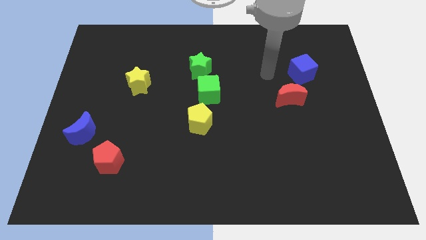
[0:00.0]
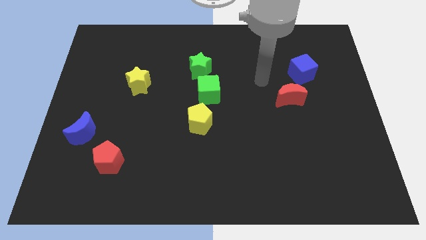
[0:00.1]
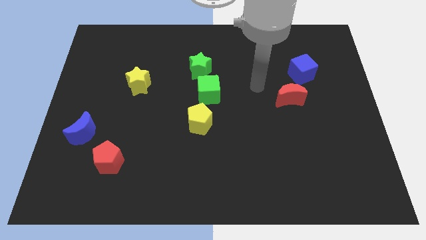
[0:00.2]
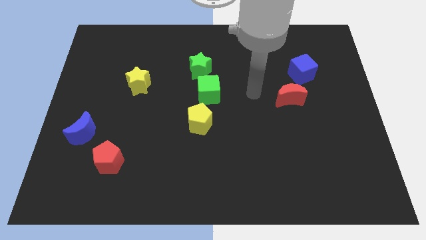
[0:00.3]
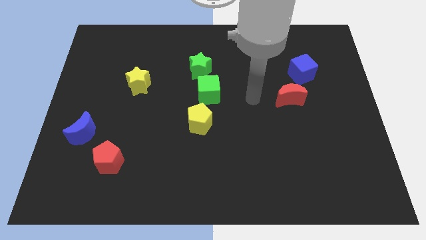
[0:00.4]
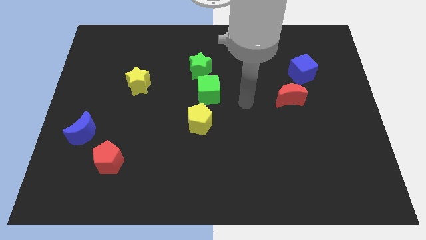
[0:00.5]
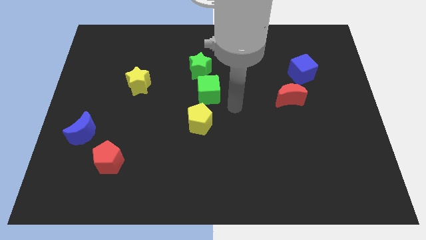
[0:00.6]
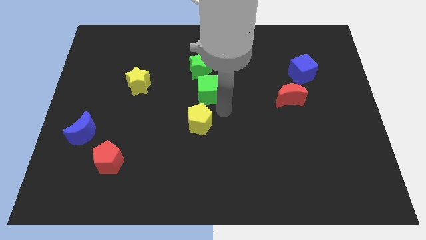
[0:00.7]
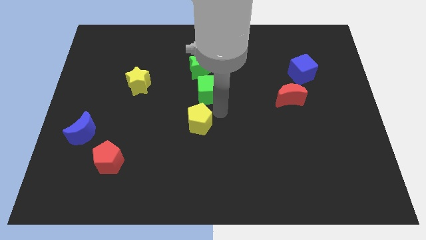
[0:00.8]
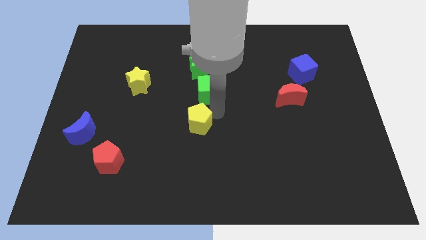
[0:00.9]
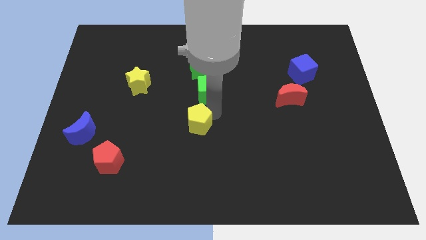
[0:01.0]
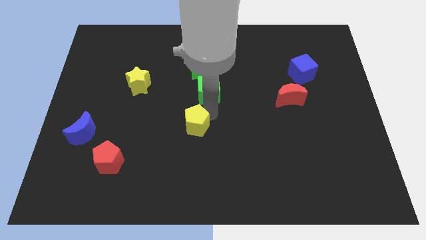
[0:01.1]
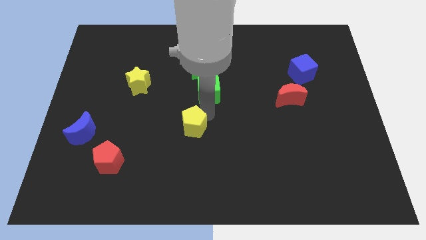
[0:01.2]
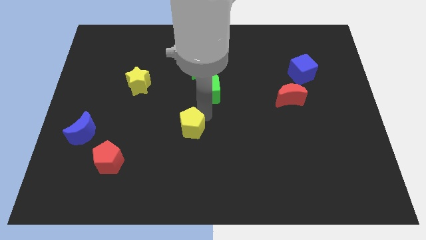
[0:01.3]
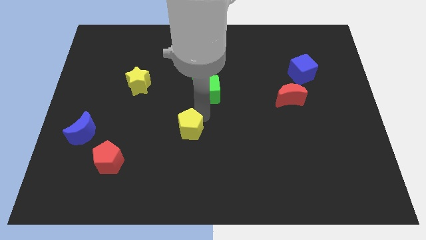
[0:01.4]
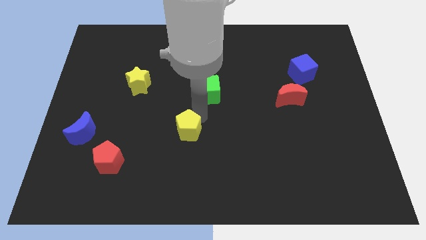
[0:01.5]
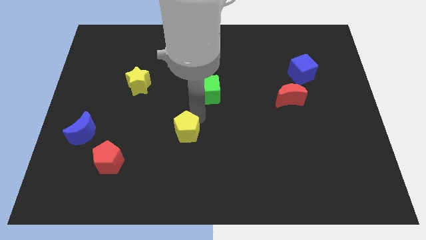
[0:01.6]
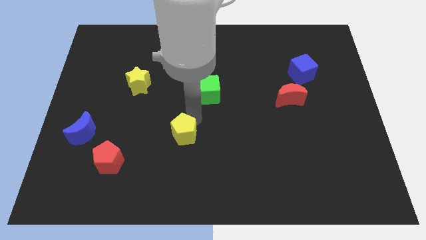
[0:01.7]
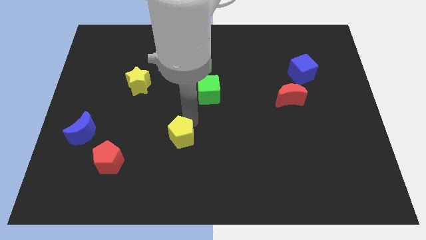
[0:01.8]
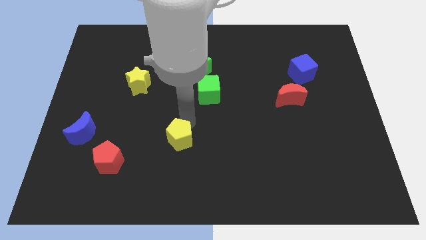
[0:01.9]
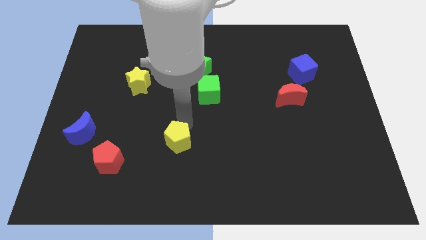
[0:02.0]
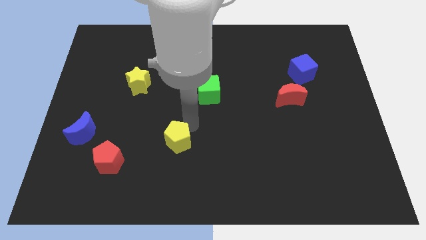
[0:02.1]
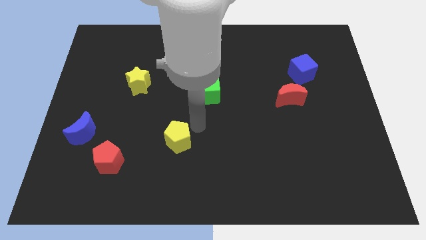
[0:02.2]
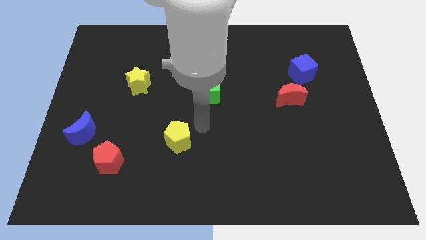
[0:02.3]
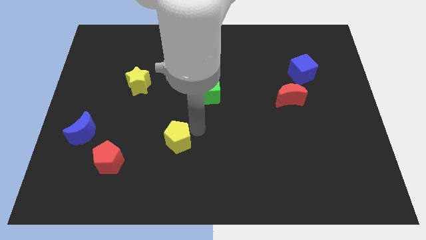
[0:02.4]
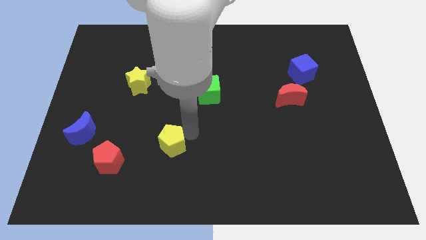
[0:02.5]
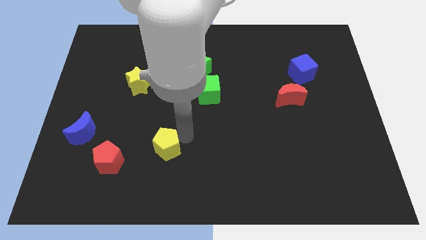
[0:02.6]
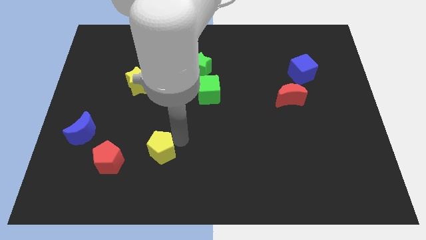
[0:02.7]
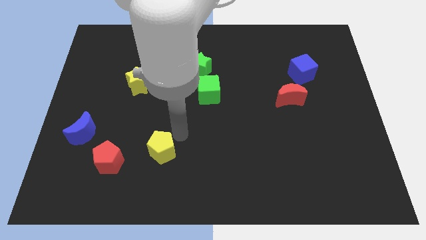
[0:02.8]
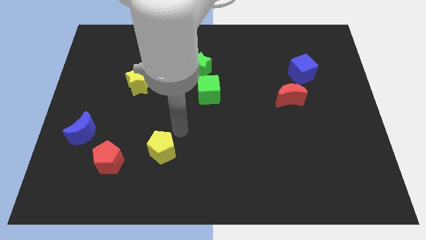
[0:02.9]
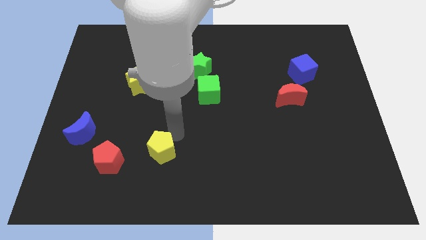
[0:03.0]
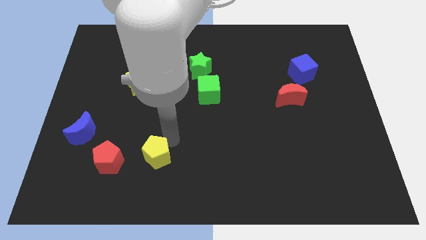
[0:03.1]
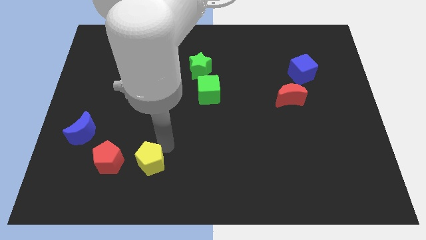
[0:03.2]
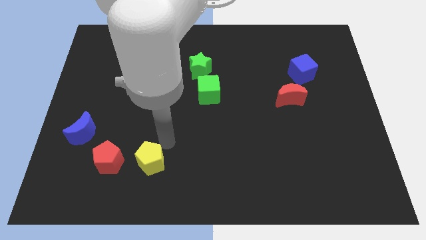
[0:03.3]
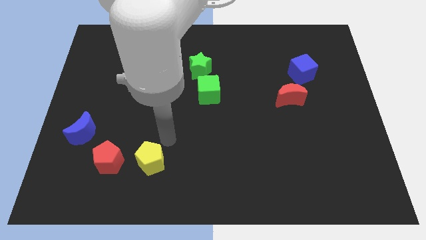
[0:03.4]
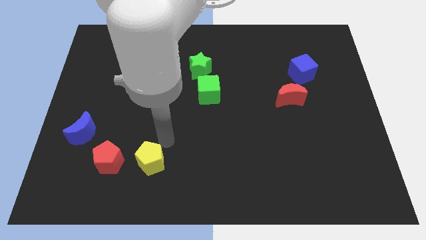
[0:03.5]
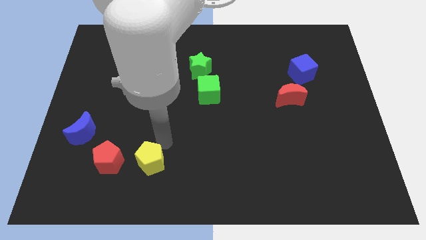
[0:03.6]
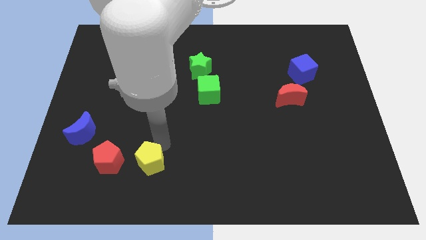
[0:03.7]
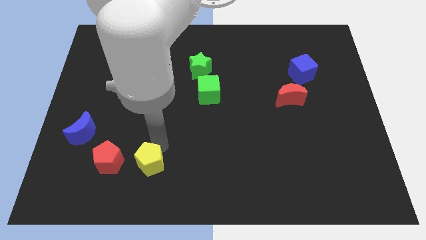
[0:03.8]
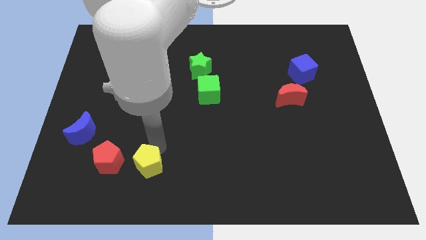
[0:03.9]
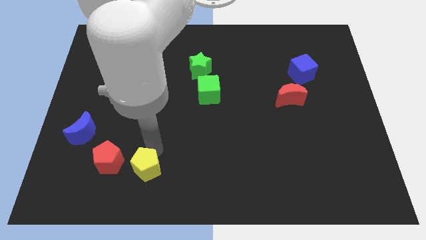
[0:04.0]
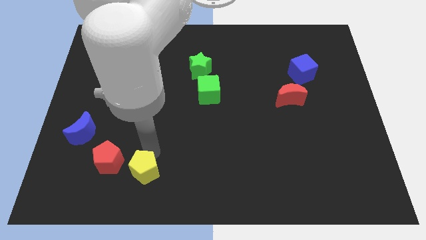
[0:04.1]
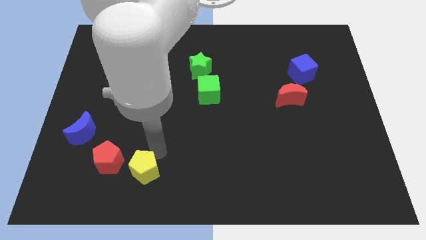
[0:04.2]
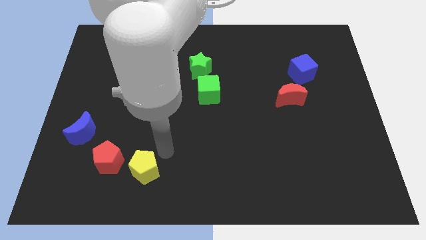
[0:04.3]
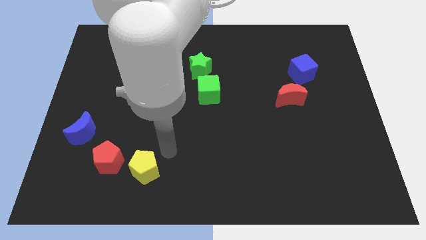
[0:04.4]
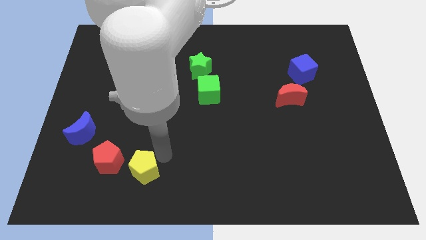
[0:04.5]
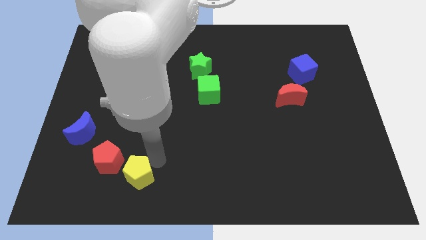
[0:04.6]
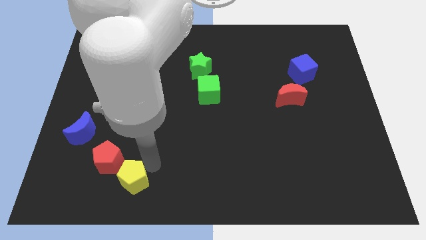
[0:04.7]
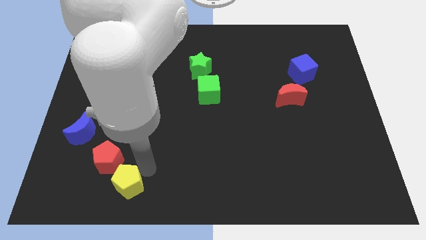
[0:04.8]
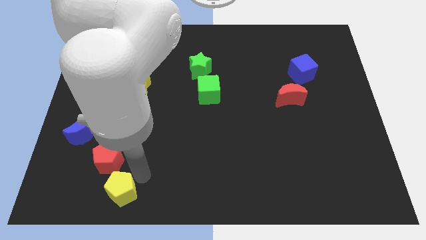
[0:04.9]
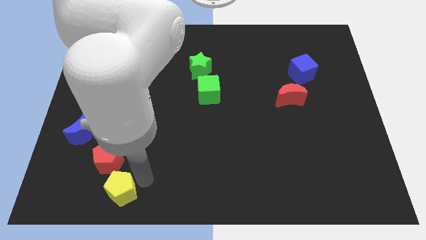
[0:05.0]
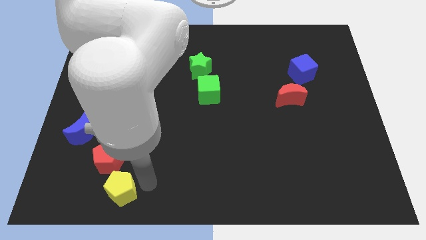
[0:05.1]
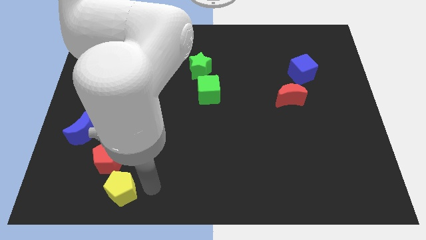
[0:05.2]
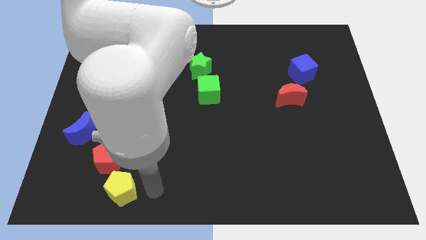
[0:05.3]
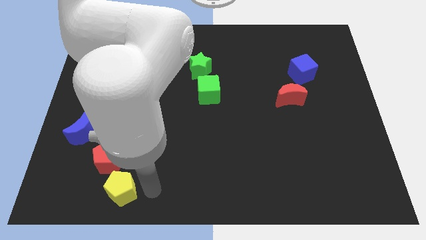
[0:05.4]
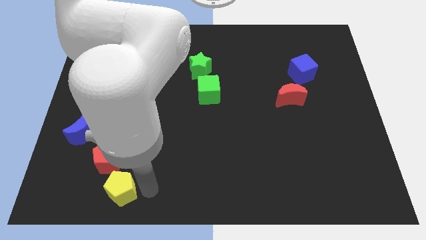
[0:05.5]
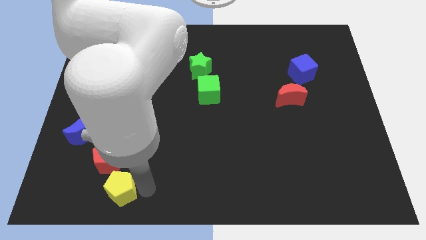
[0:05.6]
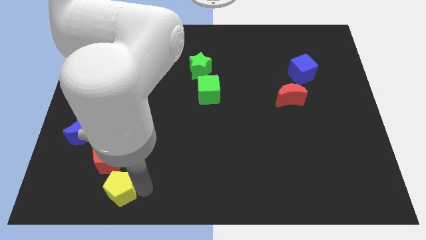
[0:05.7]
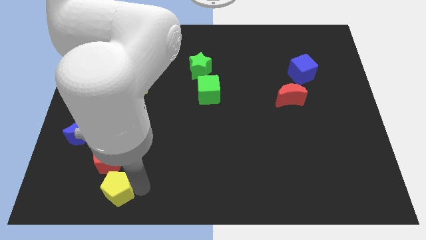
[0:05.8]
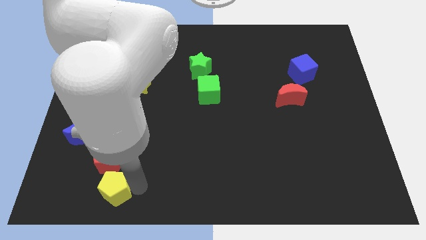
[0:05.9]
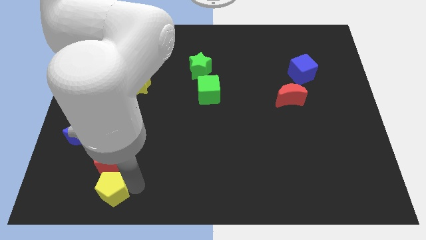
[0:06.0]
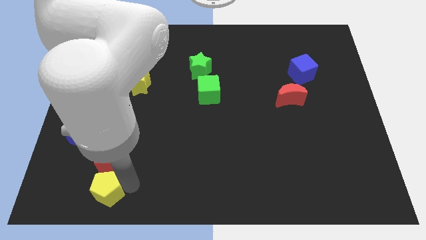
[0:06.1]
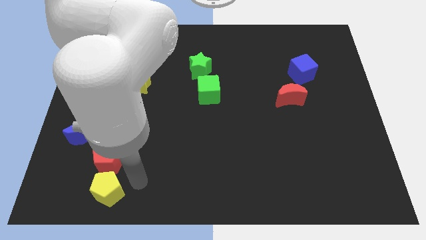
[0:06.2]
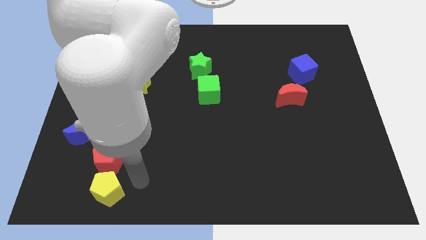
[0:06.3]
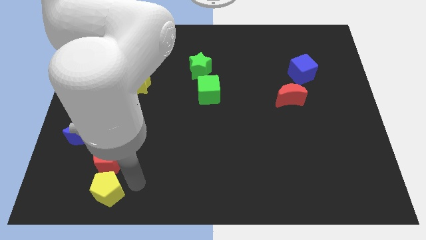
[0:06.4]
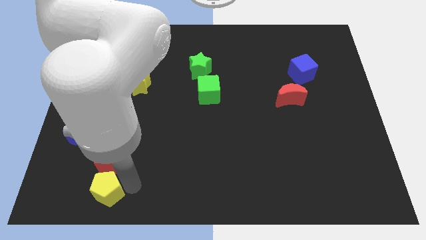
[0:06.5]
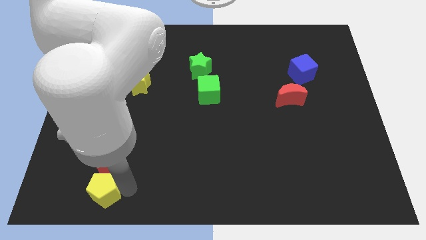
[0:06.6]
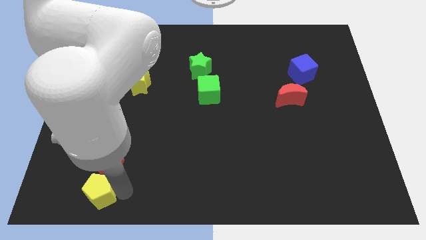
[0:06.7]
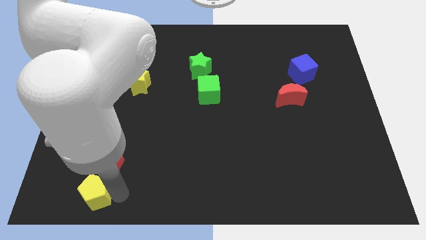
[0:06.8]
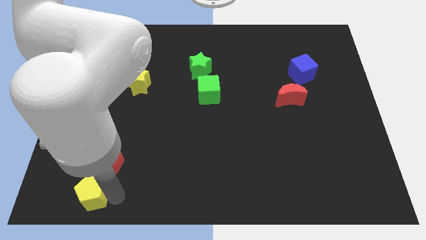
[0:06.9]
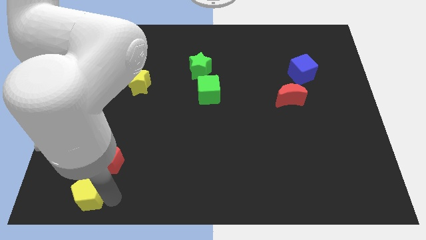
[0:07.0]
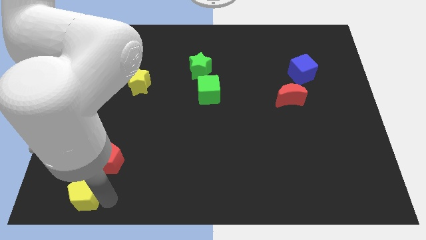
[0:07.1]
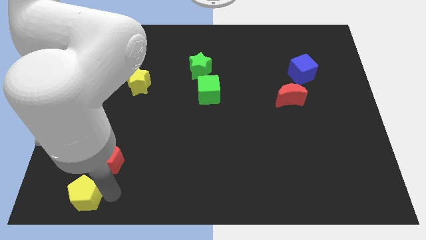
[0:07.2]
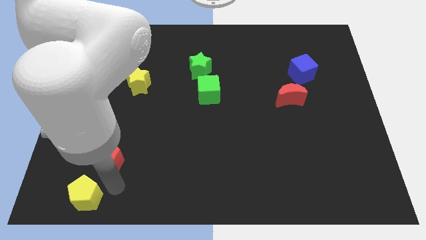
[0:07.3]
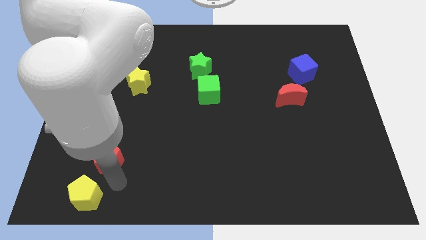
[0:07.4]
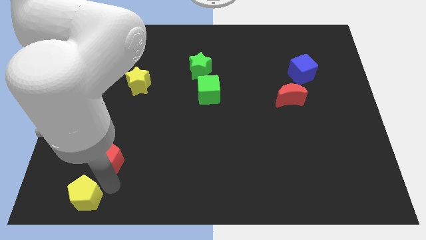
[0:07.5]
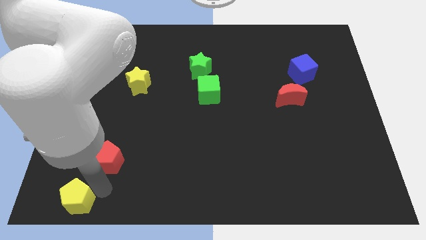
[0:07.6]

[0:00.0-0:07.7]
put the yellow pentagon to the bottom left corner

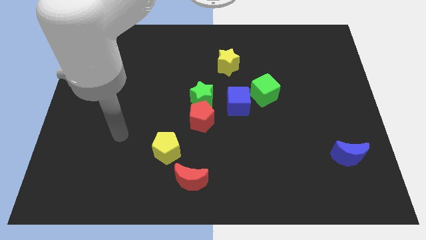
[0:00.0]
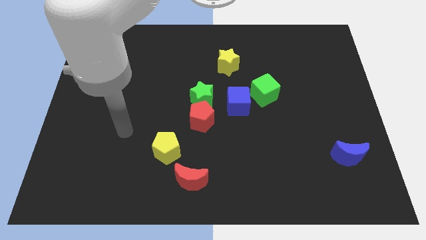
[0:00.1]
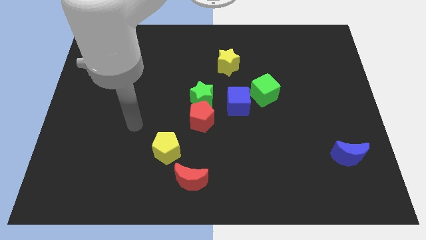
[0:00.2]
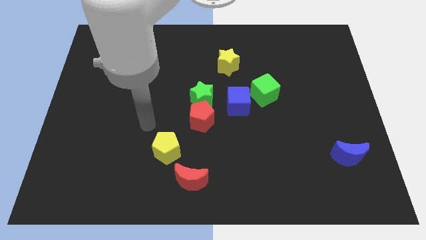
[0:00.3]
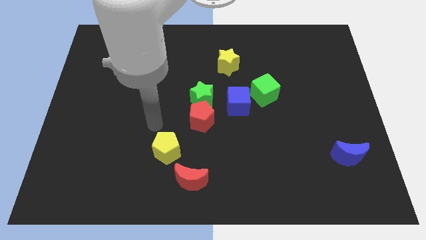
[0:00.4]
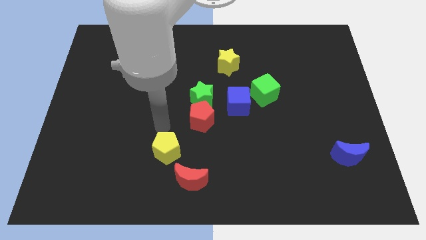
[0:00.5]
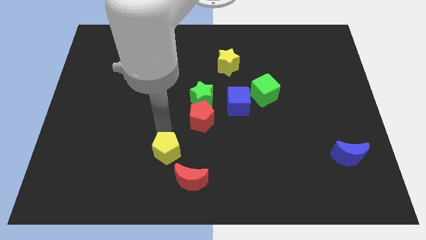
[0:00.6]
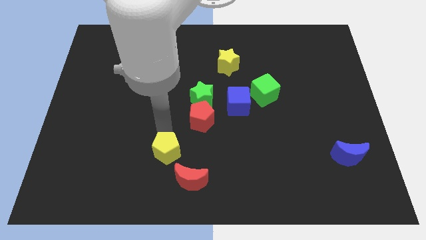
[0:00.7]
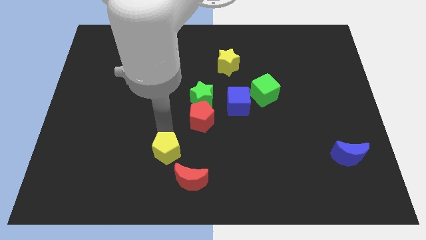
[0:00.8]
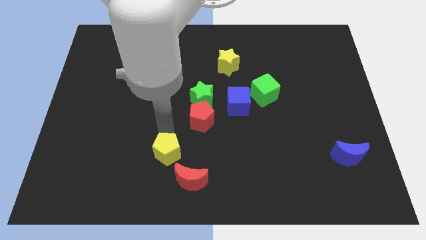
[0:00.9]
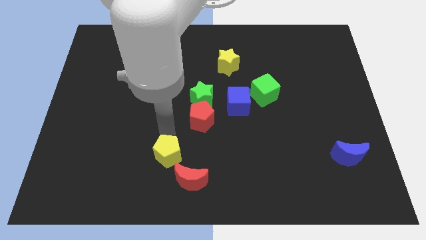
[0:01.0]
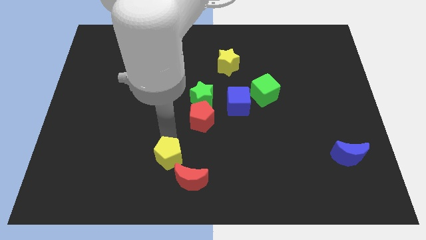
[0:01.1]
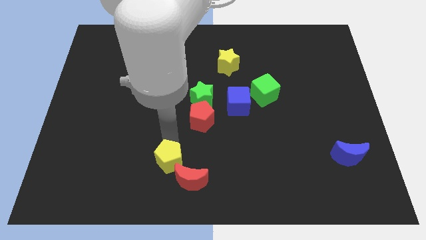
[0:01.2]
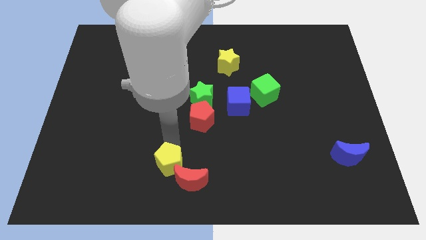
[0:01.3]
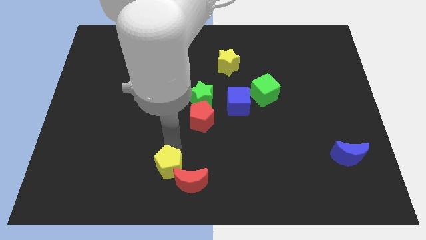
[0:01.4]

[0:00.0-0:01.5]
slide the yellow pentagon to the bottom side
